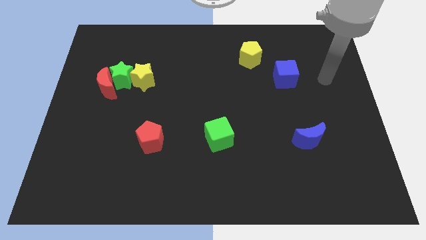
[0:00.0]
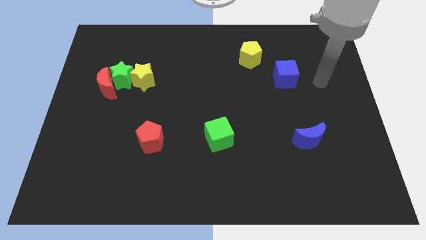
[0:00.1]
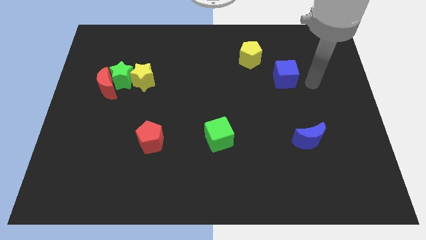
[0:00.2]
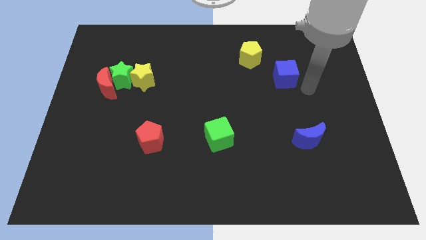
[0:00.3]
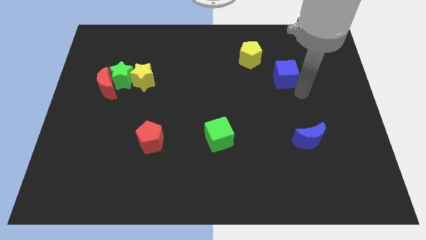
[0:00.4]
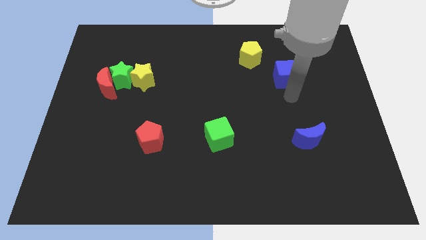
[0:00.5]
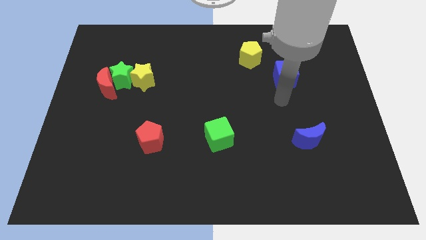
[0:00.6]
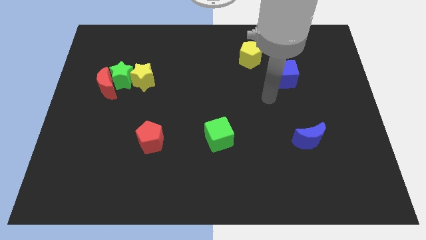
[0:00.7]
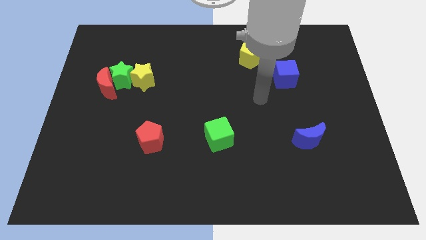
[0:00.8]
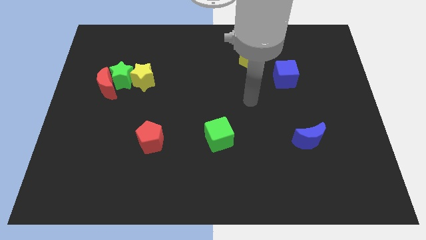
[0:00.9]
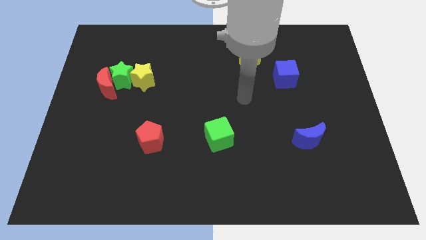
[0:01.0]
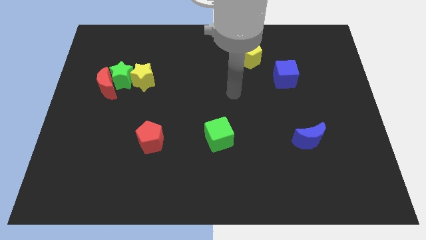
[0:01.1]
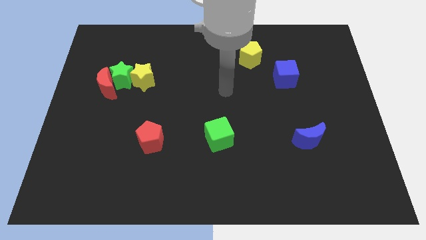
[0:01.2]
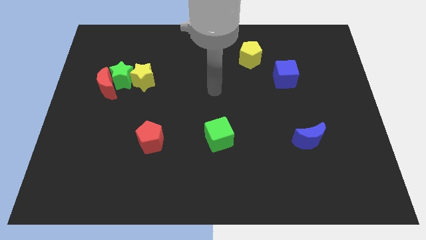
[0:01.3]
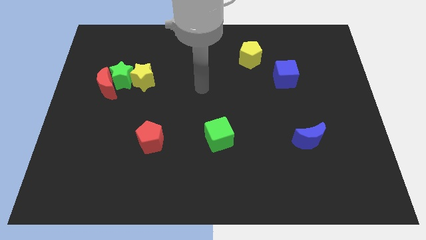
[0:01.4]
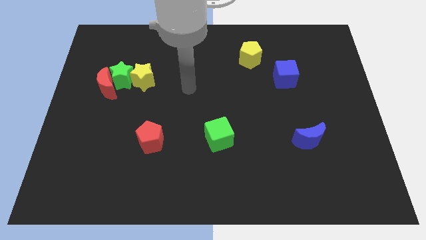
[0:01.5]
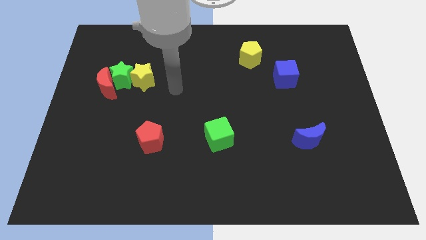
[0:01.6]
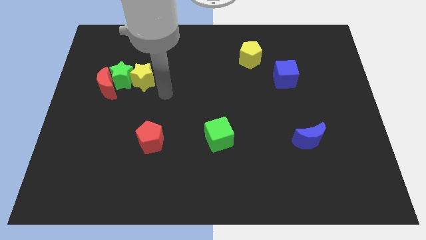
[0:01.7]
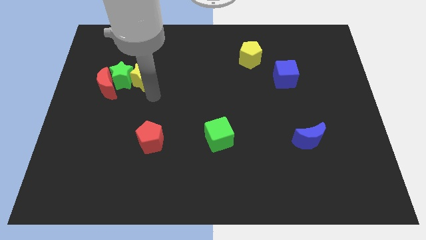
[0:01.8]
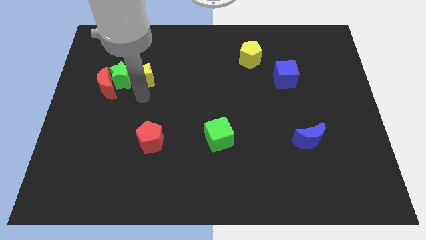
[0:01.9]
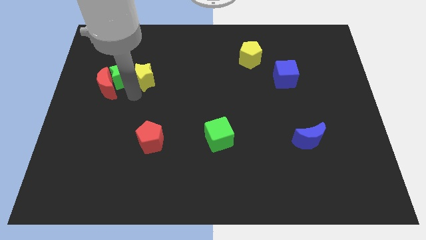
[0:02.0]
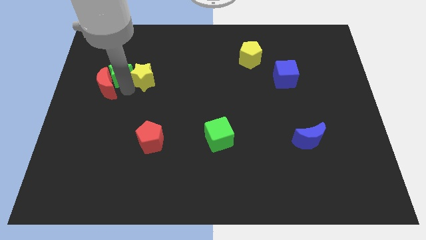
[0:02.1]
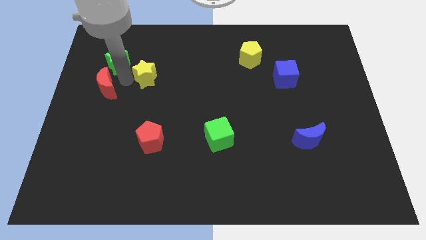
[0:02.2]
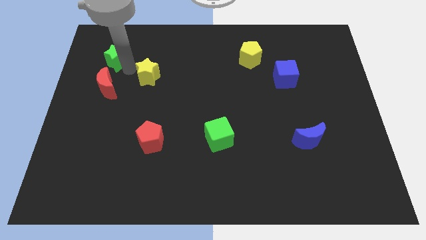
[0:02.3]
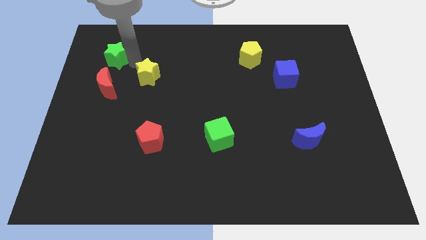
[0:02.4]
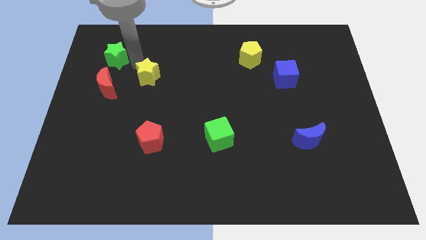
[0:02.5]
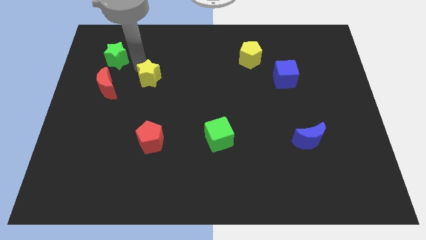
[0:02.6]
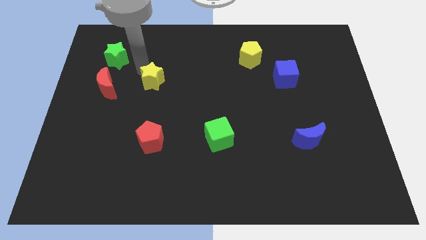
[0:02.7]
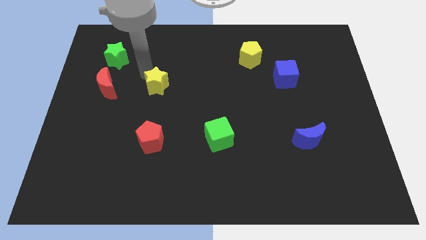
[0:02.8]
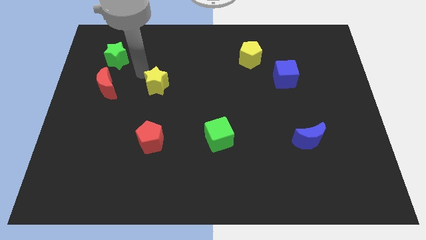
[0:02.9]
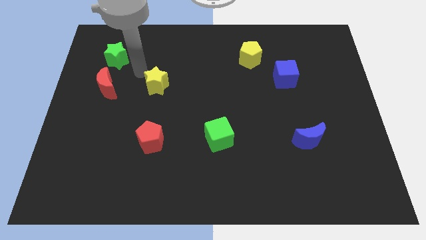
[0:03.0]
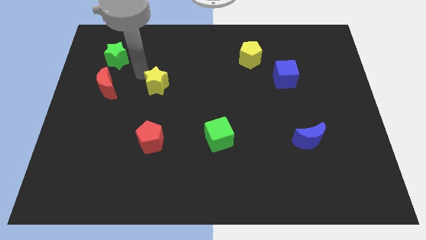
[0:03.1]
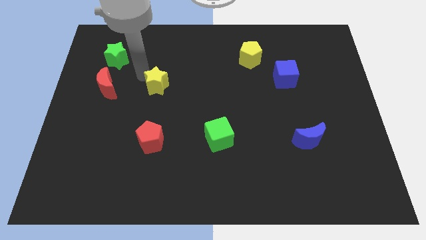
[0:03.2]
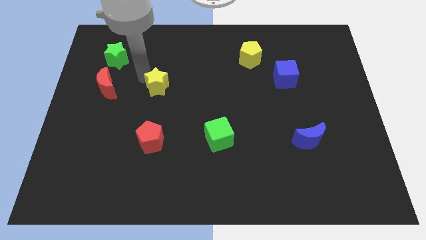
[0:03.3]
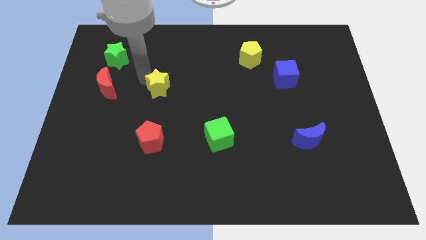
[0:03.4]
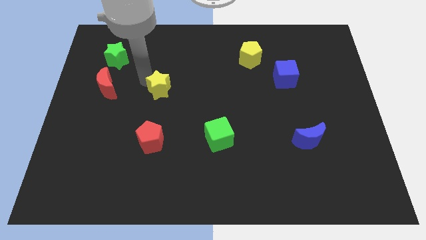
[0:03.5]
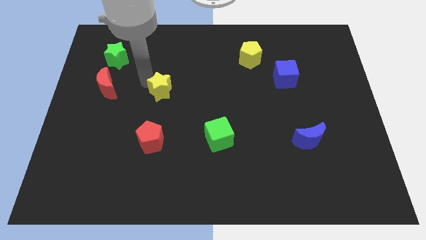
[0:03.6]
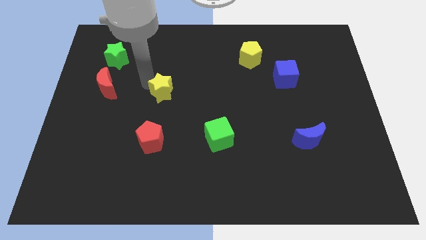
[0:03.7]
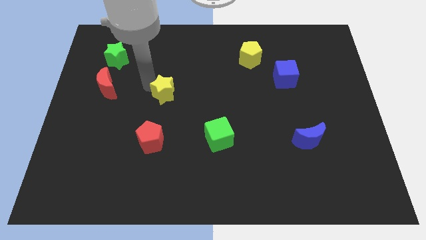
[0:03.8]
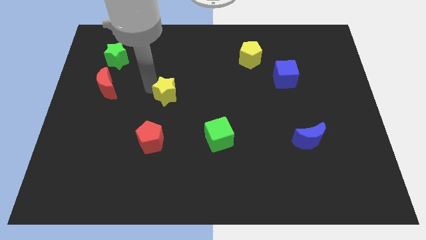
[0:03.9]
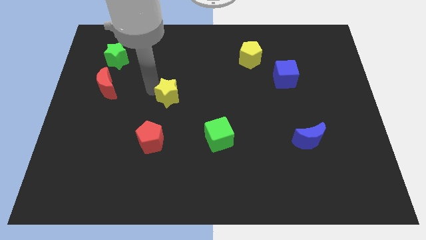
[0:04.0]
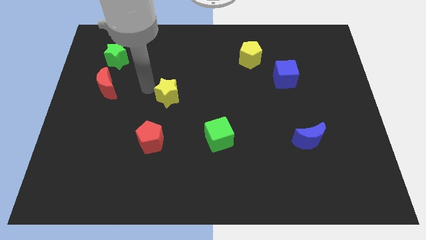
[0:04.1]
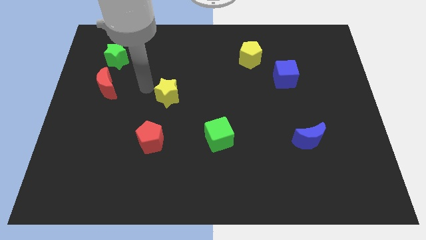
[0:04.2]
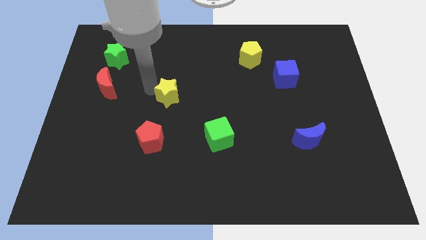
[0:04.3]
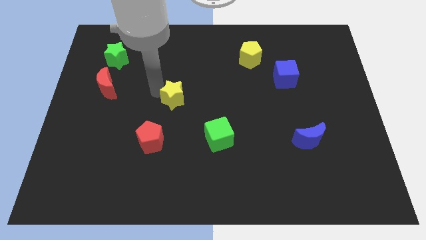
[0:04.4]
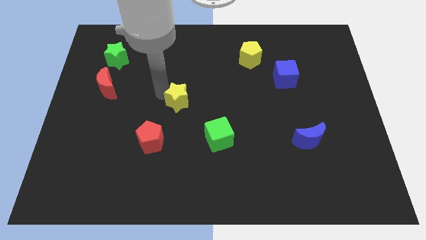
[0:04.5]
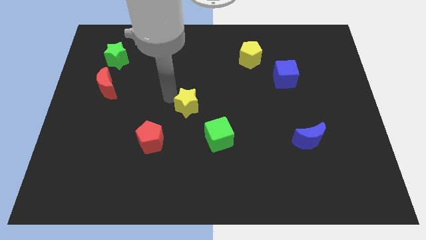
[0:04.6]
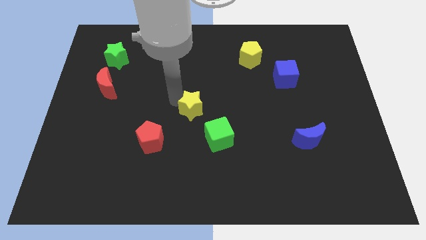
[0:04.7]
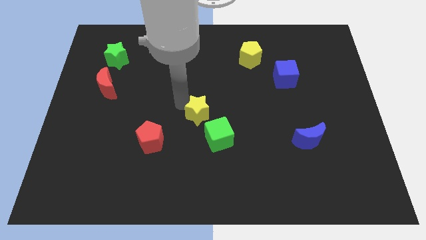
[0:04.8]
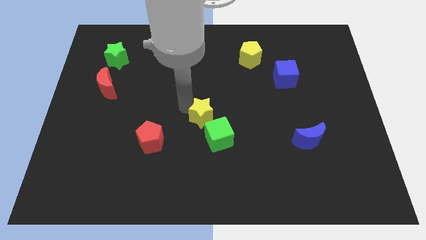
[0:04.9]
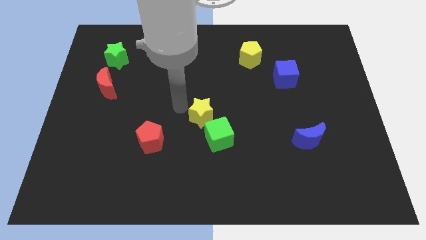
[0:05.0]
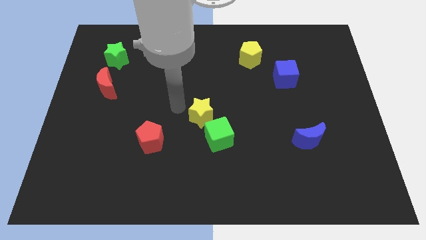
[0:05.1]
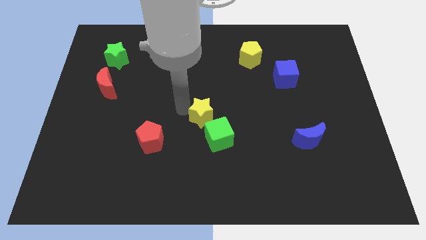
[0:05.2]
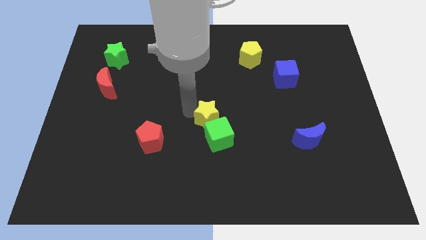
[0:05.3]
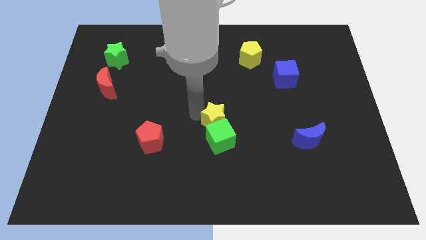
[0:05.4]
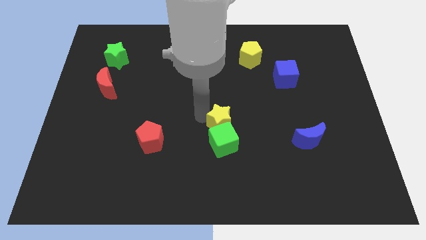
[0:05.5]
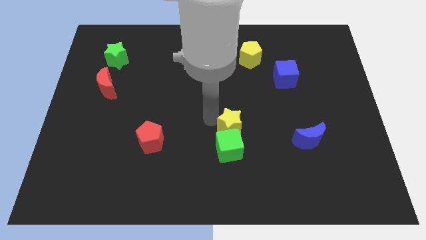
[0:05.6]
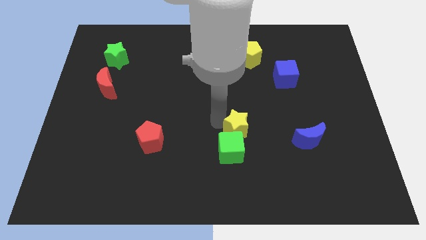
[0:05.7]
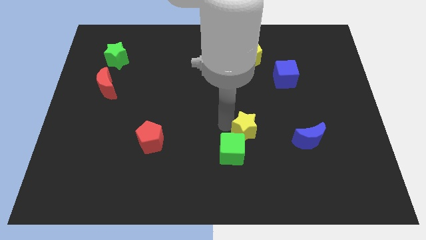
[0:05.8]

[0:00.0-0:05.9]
move the yellow star to the left of the blue moon
